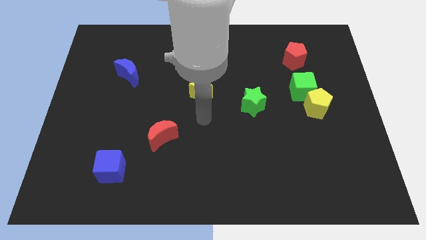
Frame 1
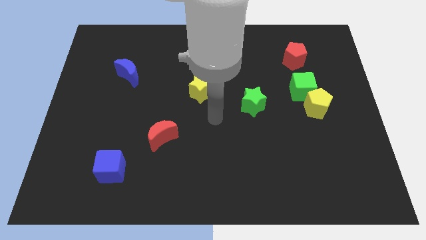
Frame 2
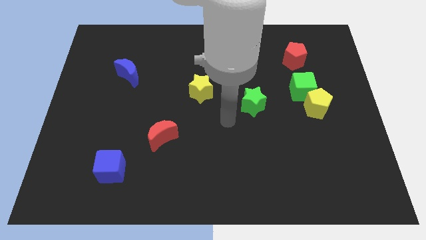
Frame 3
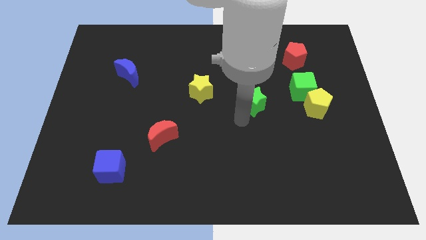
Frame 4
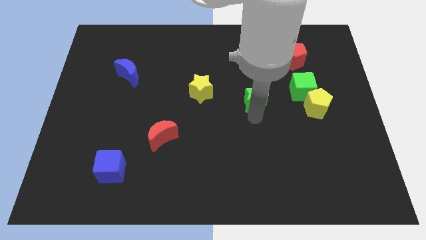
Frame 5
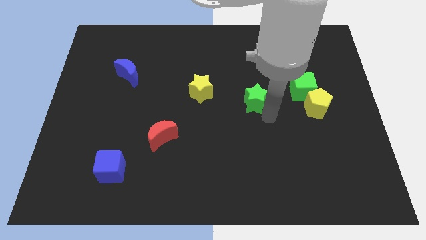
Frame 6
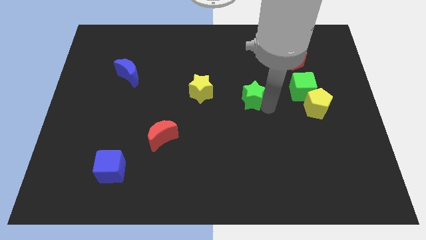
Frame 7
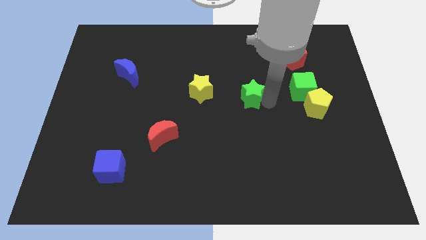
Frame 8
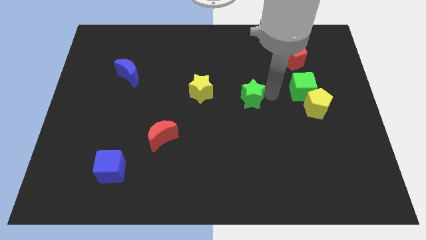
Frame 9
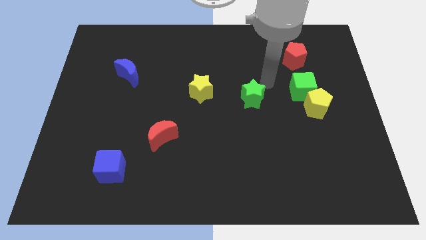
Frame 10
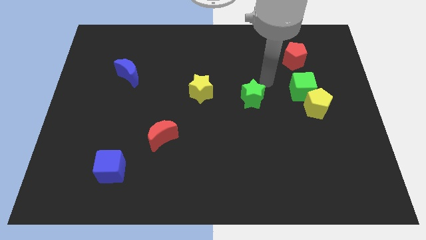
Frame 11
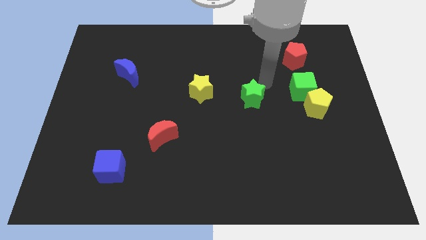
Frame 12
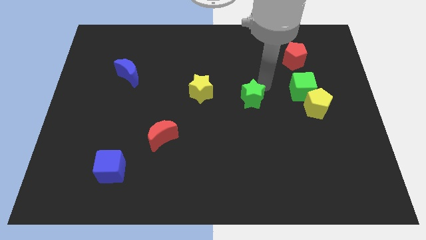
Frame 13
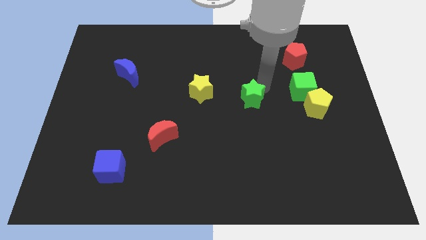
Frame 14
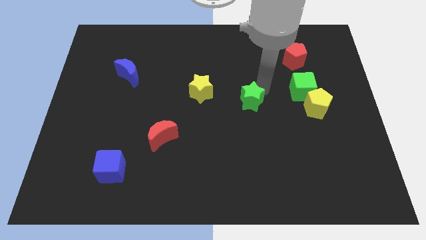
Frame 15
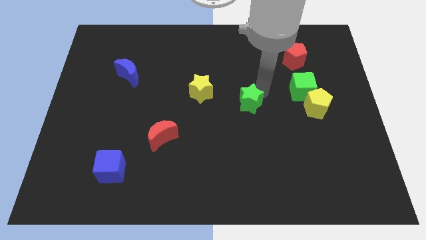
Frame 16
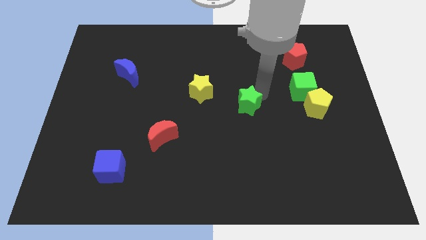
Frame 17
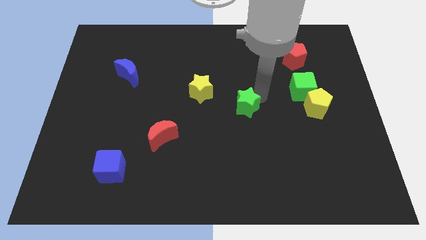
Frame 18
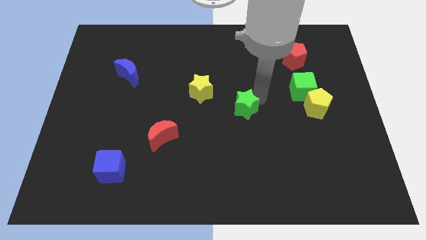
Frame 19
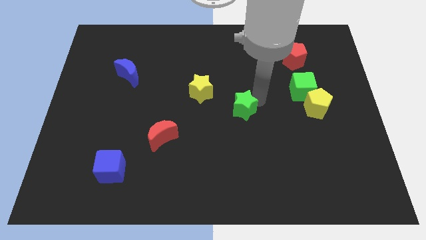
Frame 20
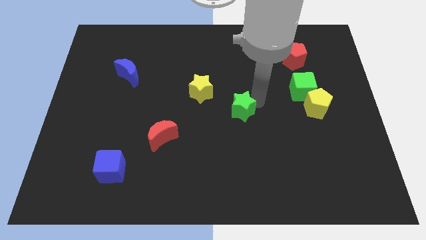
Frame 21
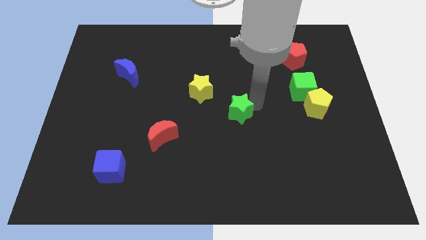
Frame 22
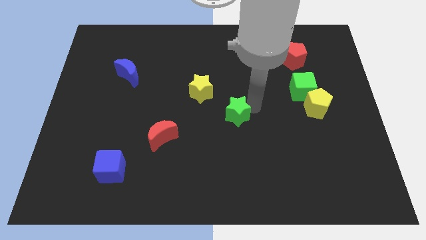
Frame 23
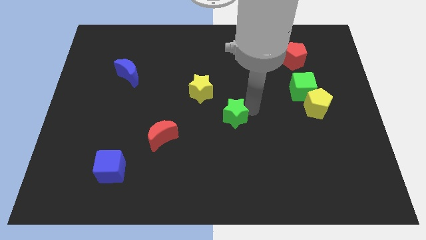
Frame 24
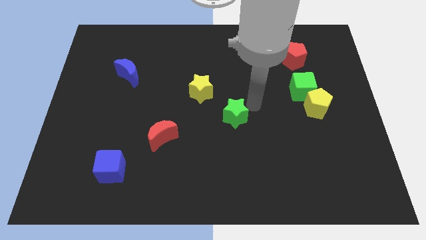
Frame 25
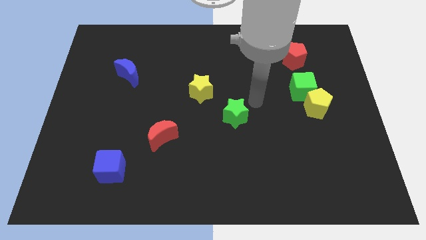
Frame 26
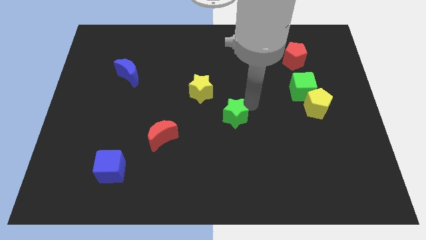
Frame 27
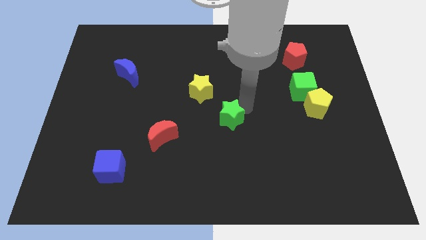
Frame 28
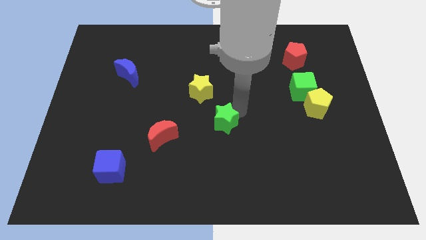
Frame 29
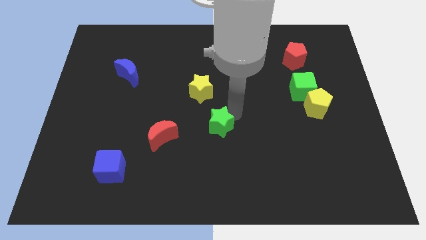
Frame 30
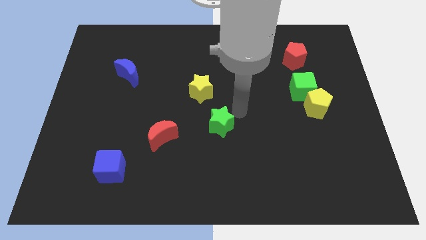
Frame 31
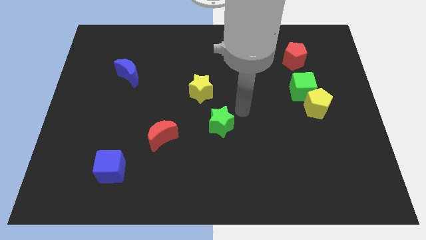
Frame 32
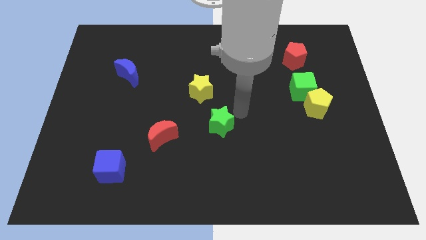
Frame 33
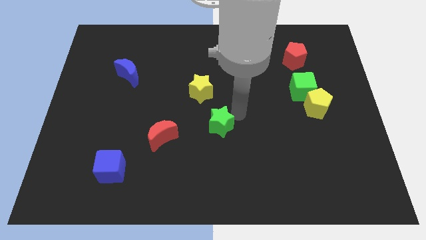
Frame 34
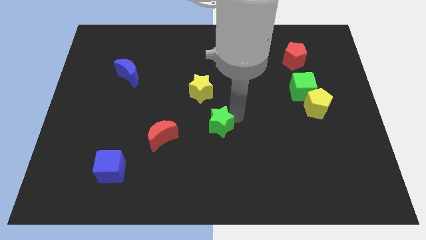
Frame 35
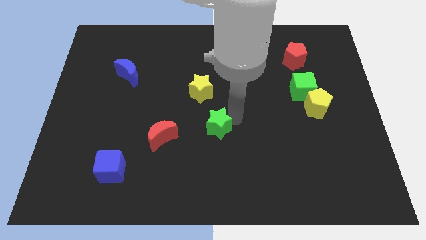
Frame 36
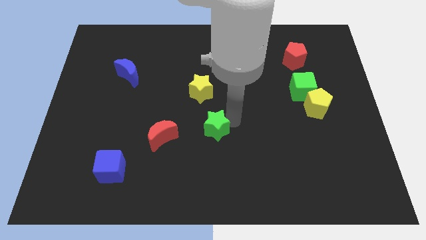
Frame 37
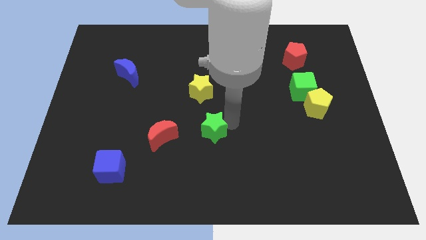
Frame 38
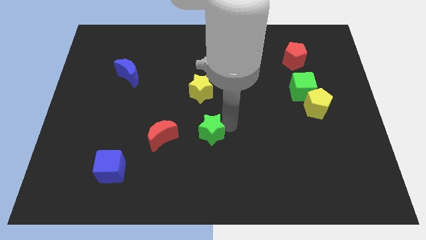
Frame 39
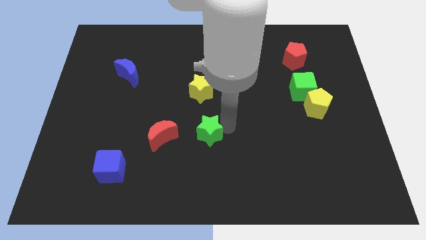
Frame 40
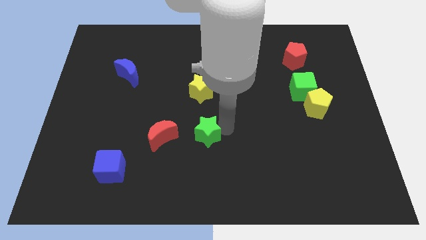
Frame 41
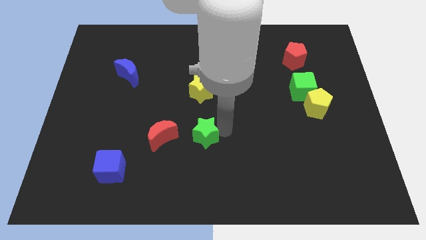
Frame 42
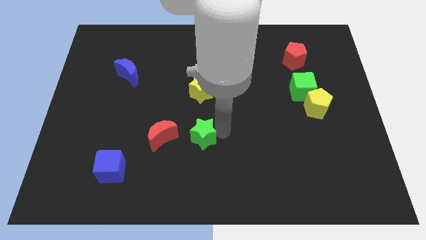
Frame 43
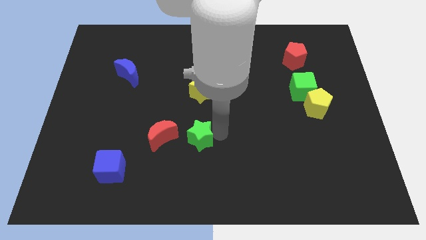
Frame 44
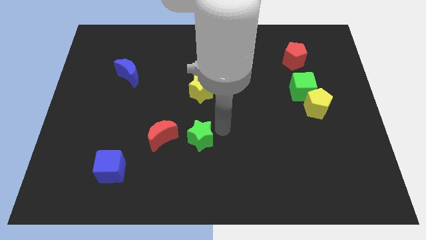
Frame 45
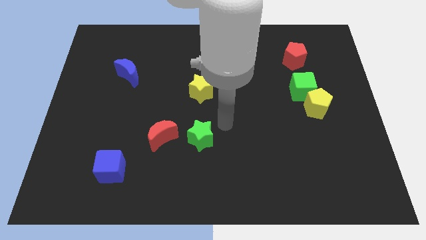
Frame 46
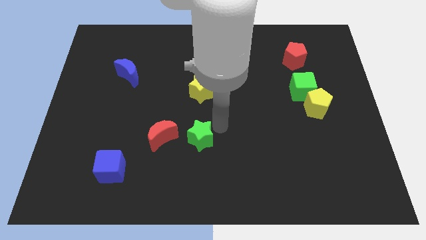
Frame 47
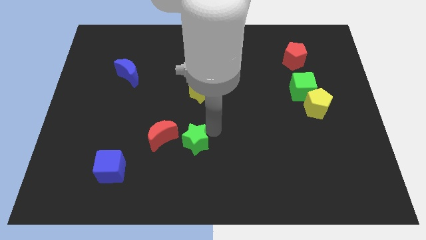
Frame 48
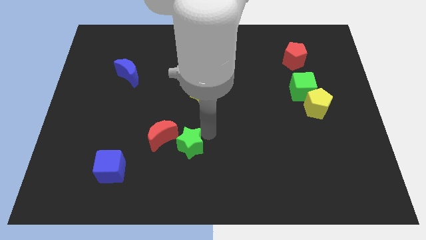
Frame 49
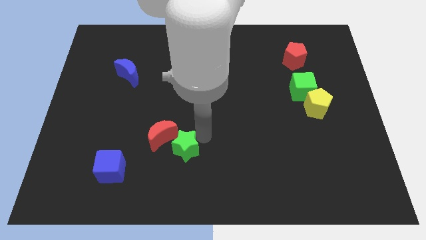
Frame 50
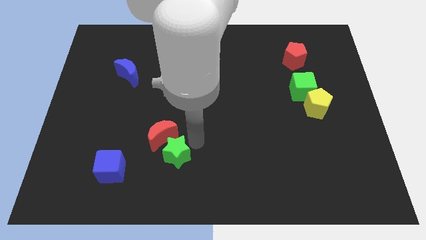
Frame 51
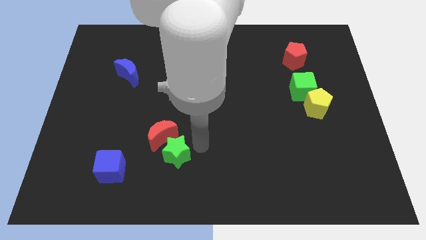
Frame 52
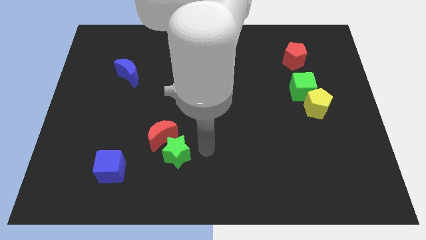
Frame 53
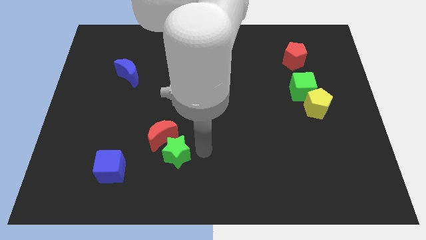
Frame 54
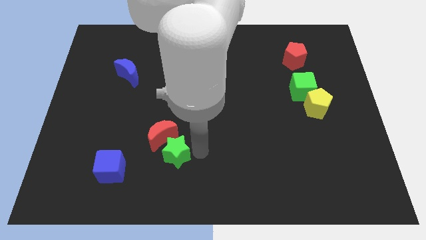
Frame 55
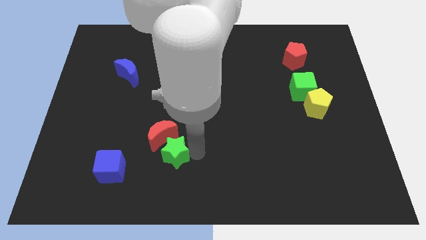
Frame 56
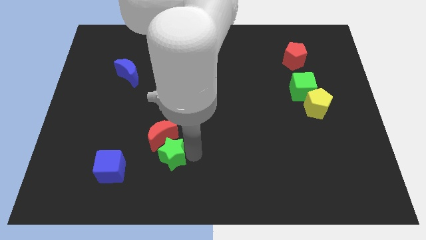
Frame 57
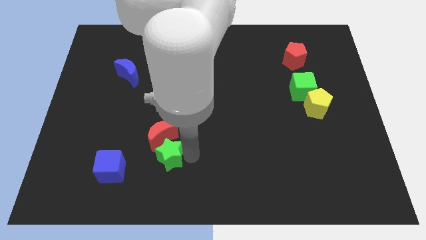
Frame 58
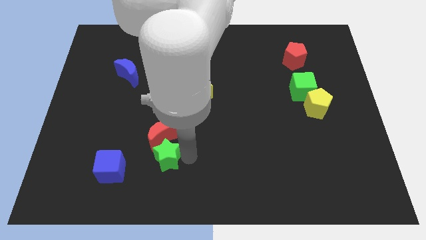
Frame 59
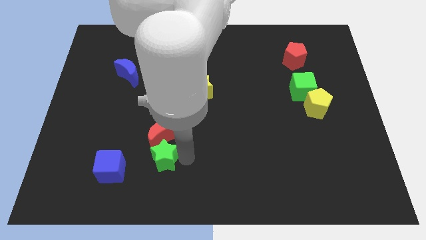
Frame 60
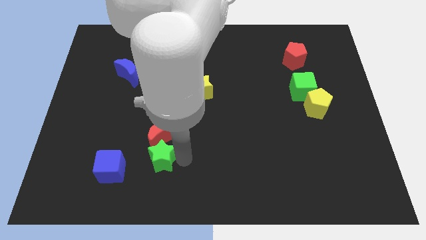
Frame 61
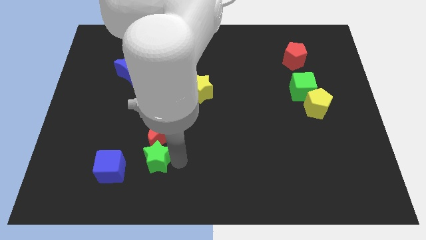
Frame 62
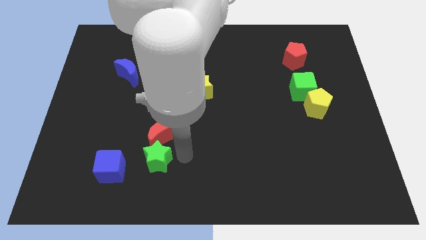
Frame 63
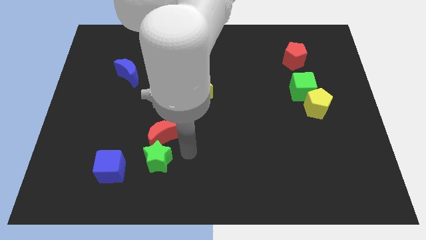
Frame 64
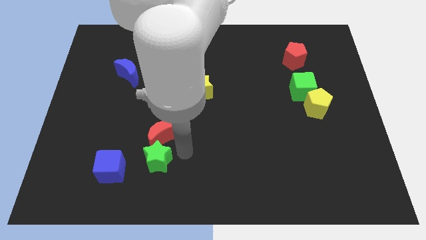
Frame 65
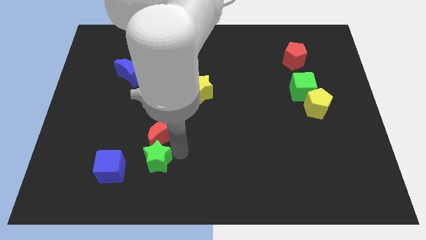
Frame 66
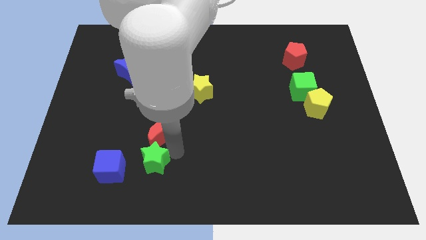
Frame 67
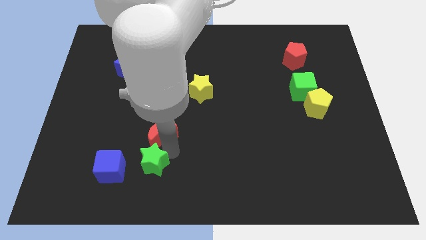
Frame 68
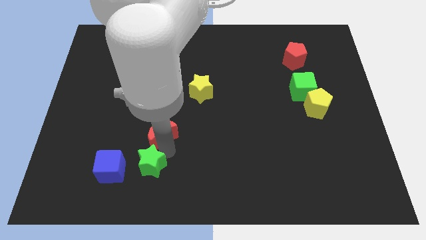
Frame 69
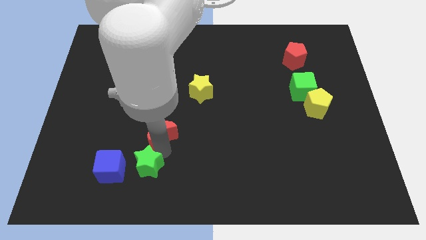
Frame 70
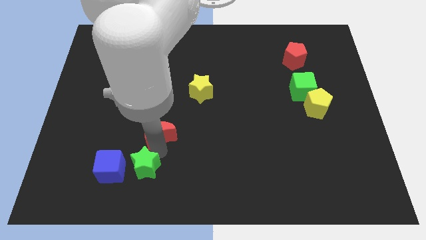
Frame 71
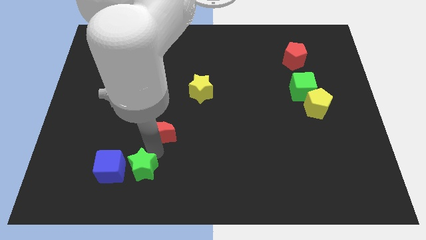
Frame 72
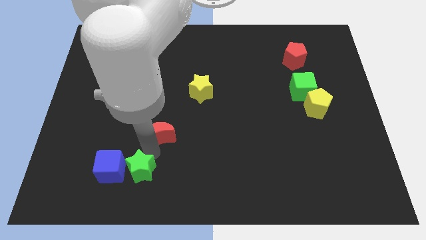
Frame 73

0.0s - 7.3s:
move the green star next to the blue cube
